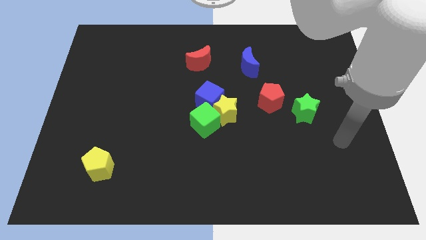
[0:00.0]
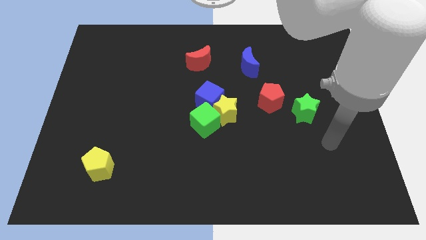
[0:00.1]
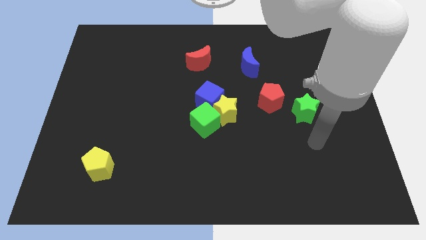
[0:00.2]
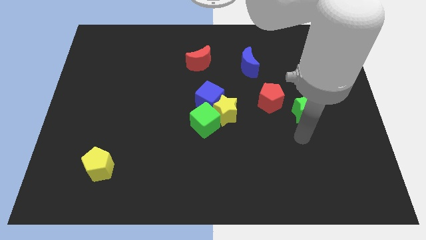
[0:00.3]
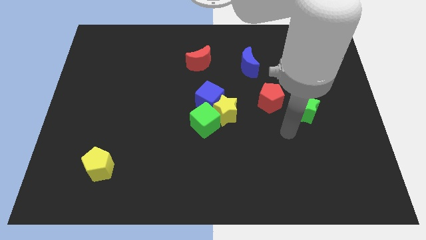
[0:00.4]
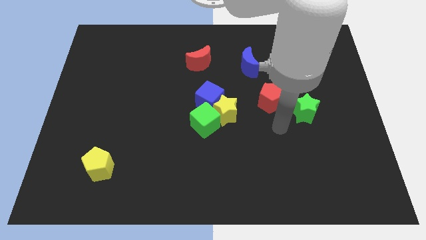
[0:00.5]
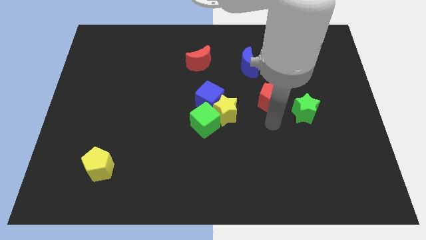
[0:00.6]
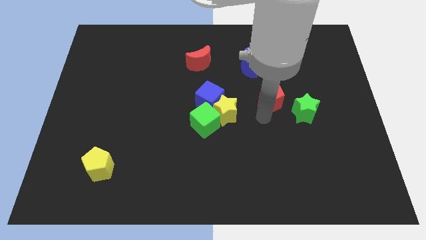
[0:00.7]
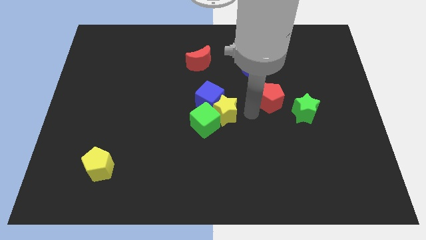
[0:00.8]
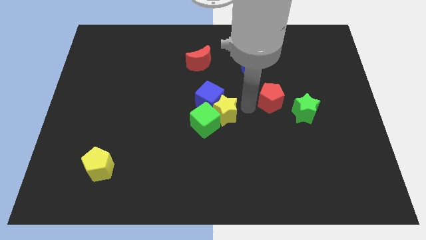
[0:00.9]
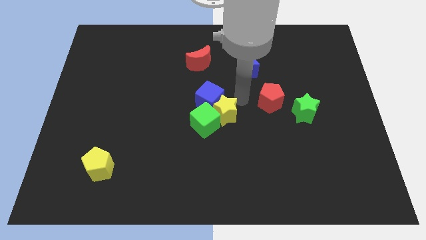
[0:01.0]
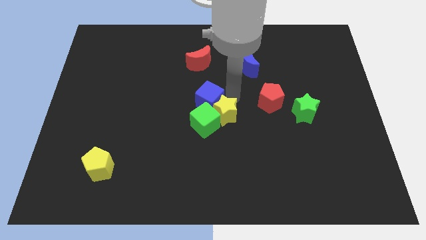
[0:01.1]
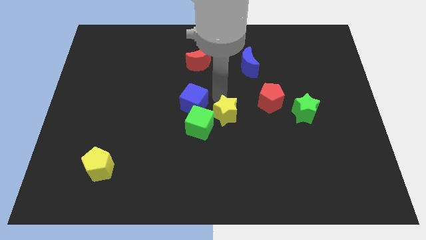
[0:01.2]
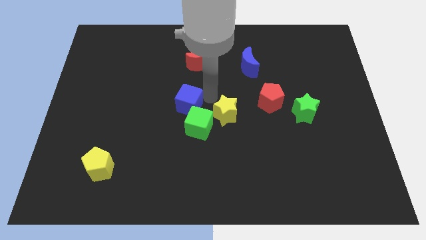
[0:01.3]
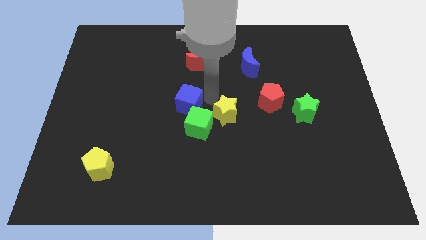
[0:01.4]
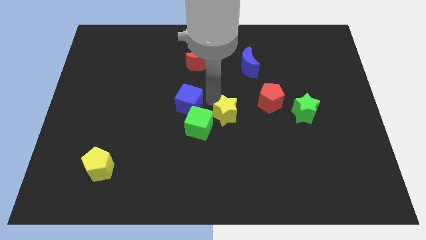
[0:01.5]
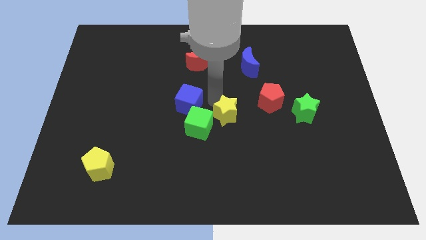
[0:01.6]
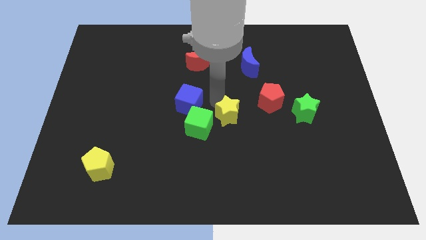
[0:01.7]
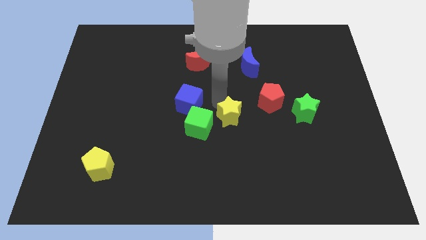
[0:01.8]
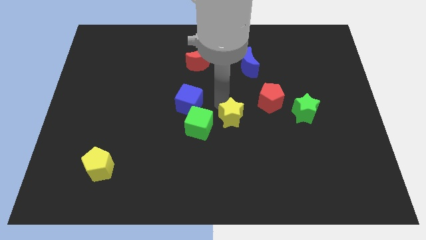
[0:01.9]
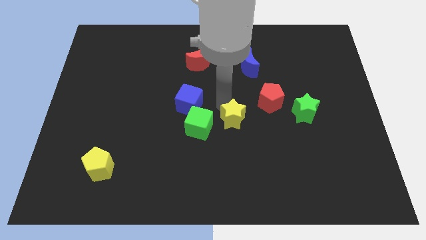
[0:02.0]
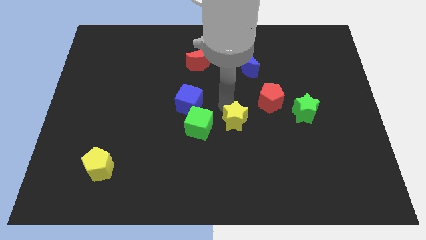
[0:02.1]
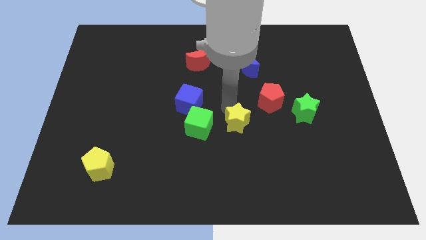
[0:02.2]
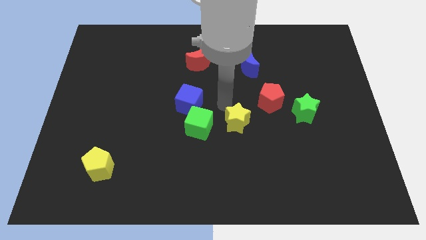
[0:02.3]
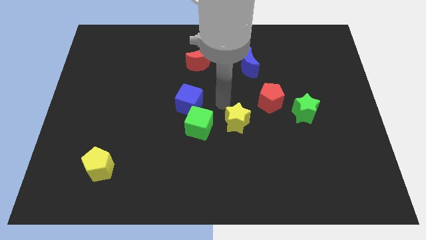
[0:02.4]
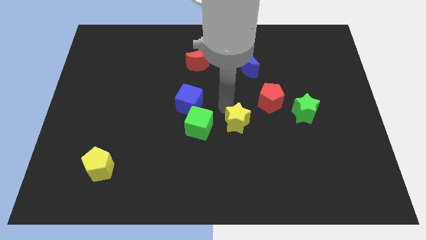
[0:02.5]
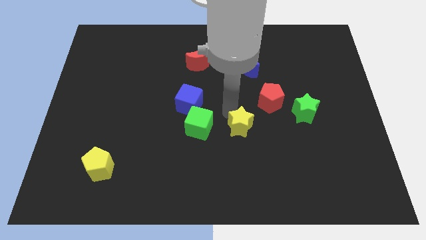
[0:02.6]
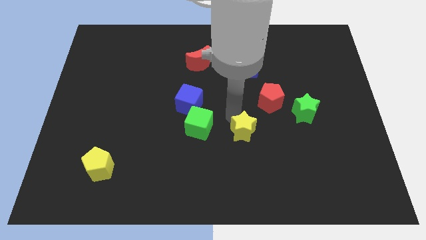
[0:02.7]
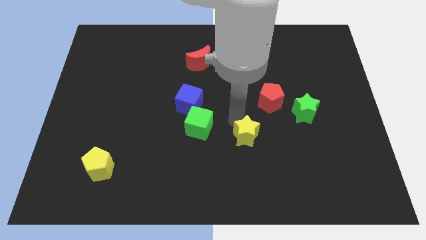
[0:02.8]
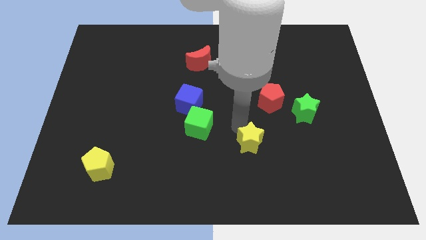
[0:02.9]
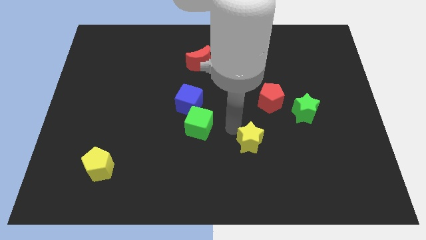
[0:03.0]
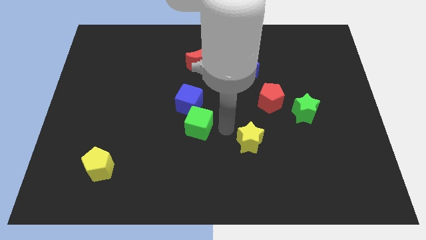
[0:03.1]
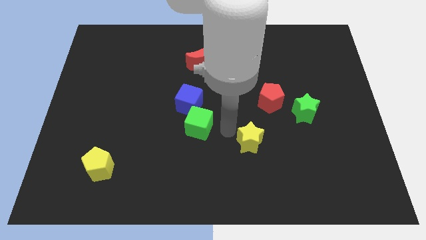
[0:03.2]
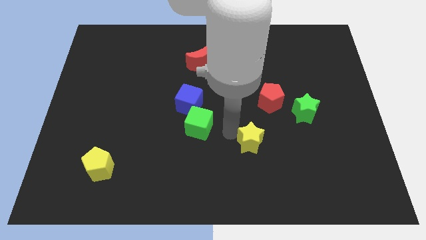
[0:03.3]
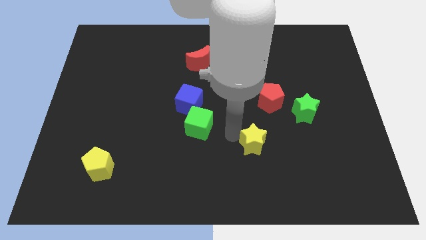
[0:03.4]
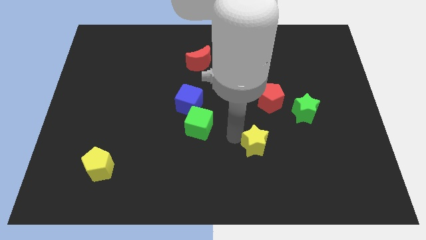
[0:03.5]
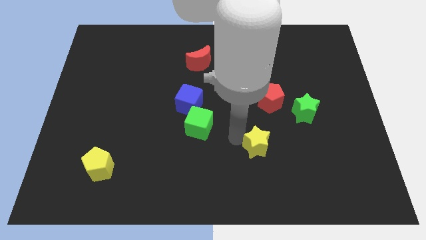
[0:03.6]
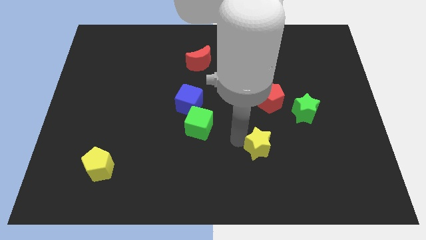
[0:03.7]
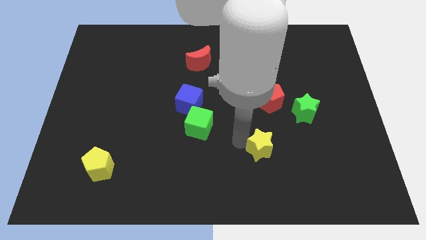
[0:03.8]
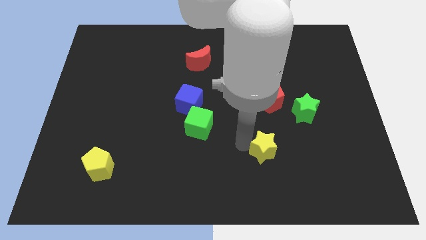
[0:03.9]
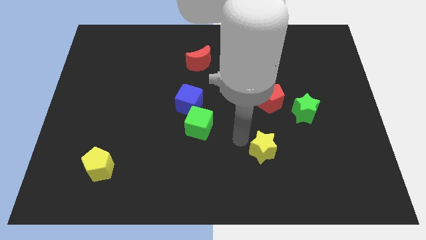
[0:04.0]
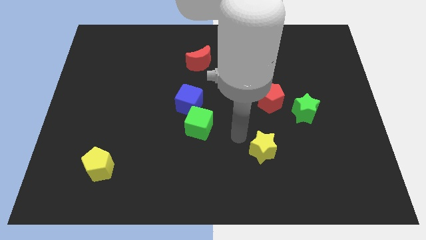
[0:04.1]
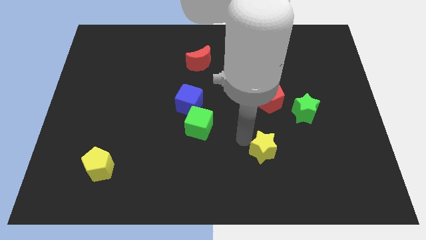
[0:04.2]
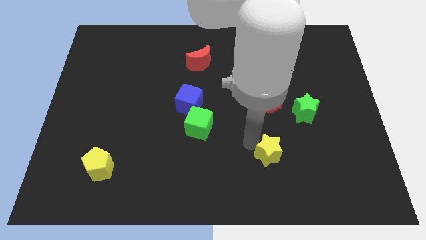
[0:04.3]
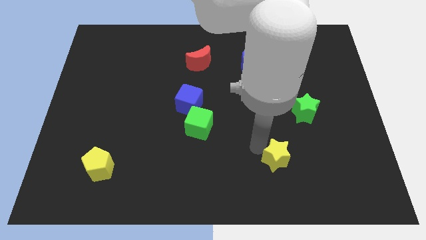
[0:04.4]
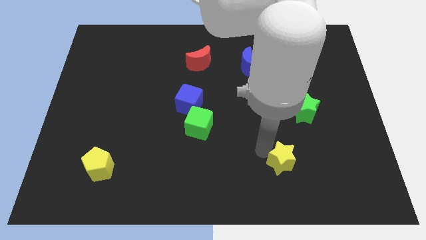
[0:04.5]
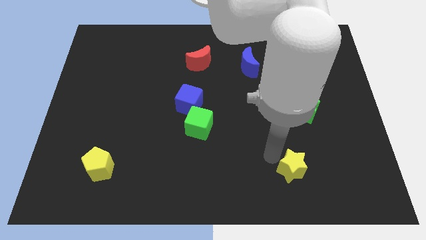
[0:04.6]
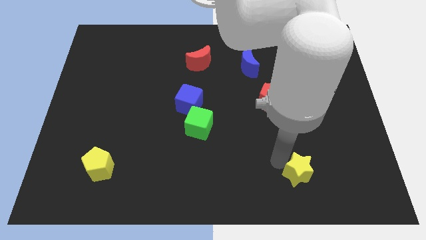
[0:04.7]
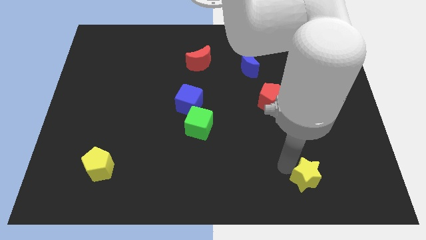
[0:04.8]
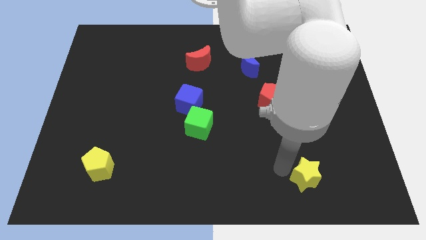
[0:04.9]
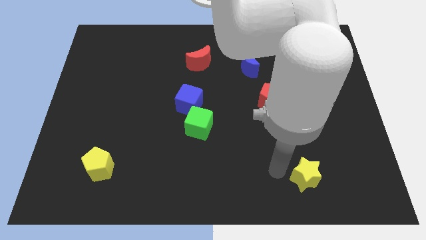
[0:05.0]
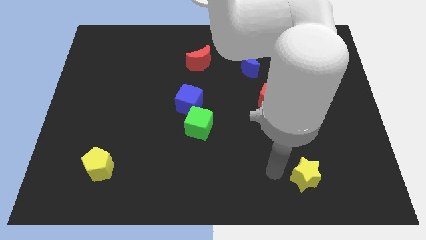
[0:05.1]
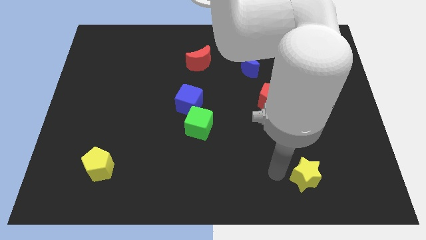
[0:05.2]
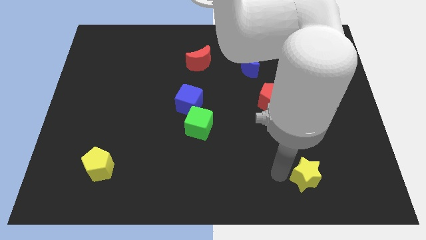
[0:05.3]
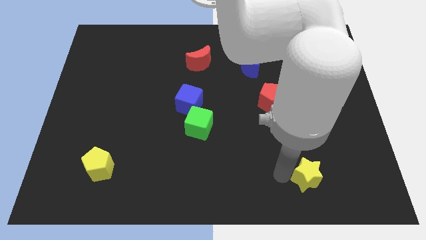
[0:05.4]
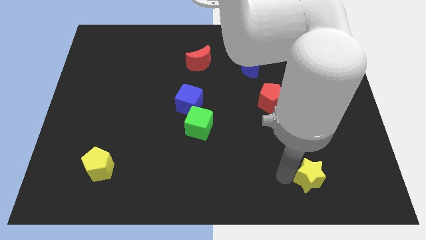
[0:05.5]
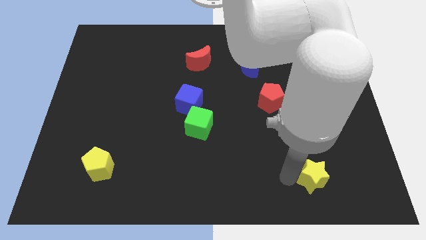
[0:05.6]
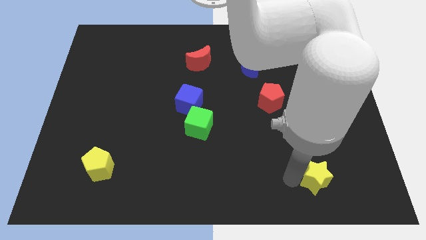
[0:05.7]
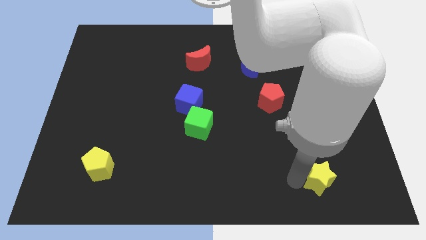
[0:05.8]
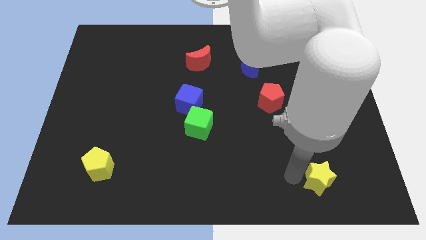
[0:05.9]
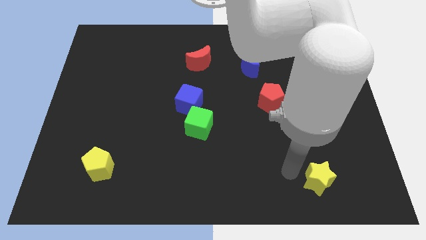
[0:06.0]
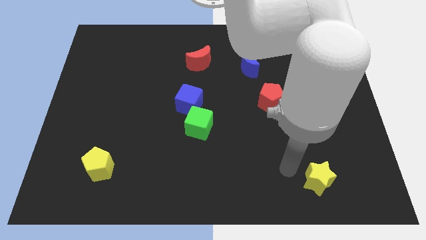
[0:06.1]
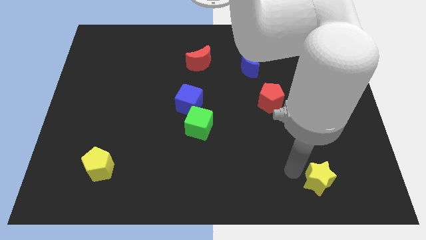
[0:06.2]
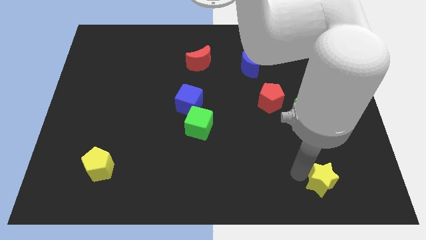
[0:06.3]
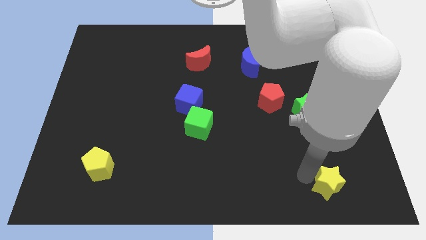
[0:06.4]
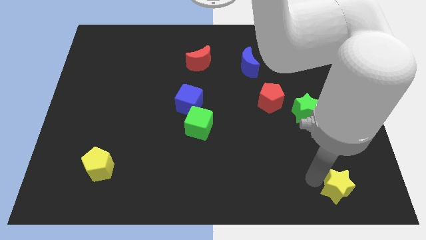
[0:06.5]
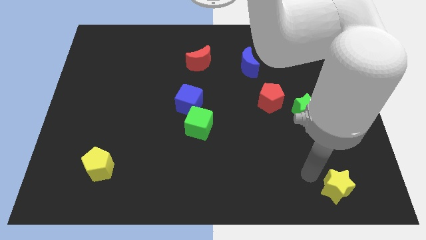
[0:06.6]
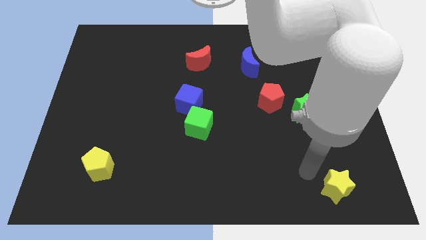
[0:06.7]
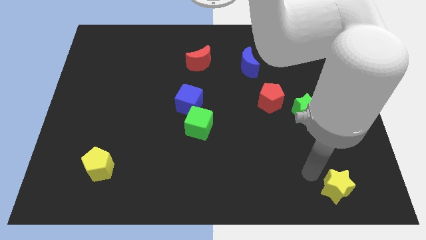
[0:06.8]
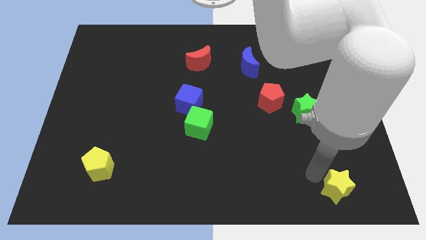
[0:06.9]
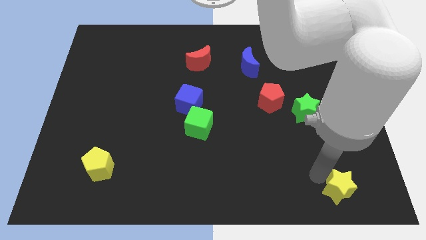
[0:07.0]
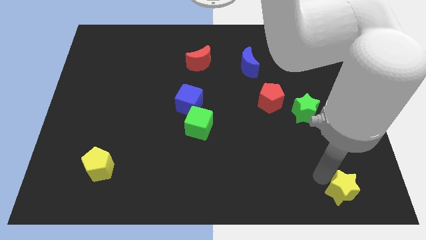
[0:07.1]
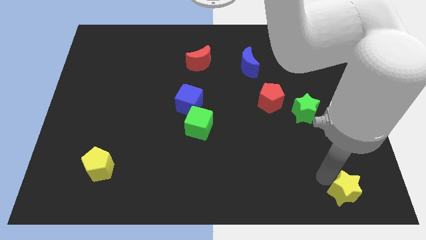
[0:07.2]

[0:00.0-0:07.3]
slide the yellow star to the lower right corner
